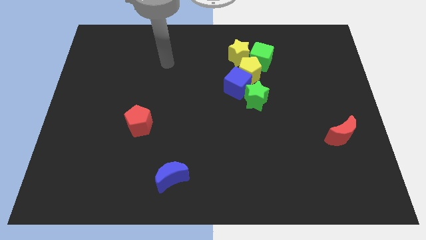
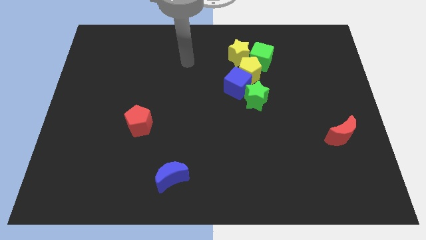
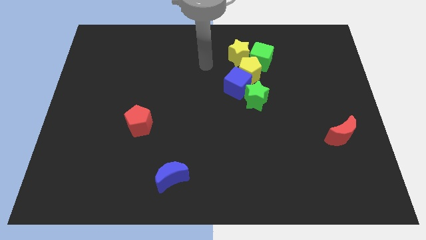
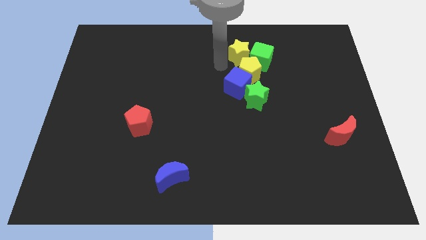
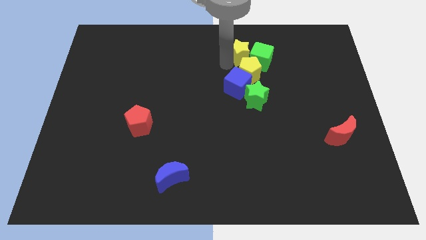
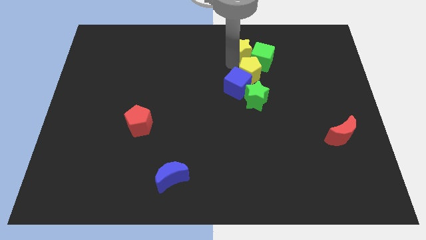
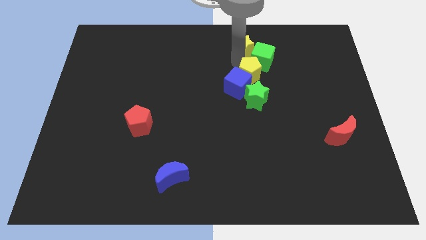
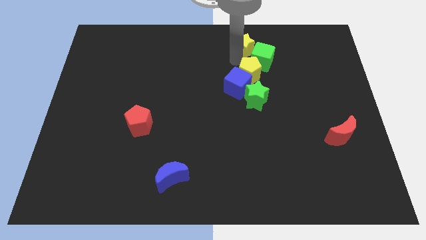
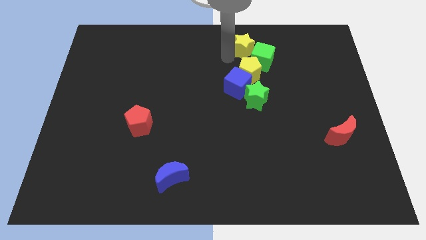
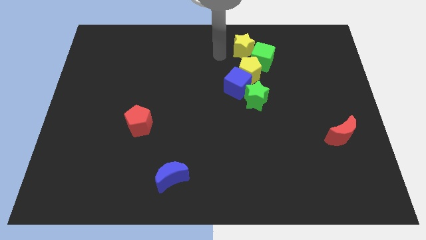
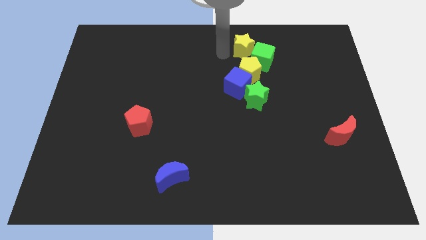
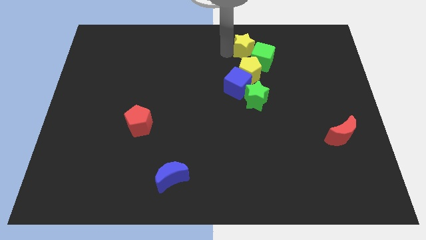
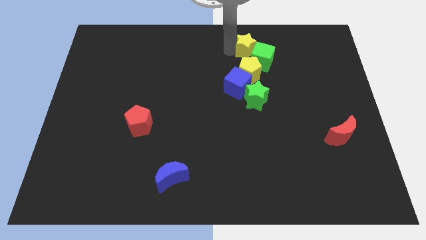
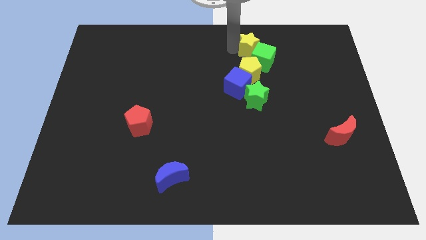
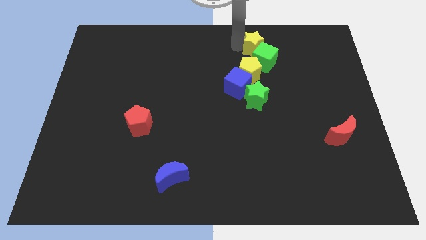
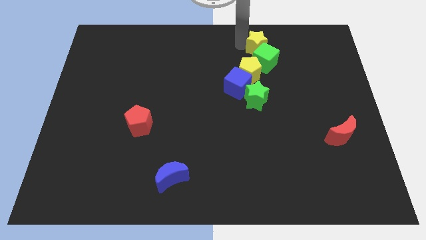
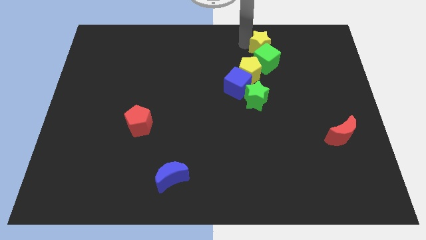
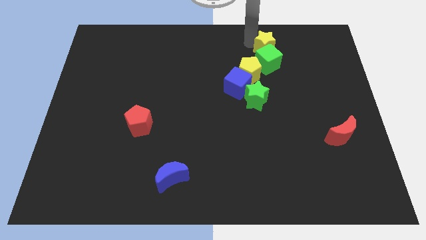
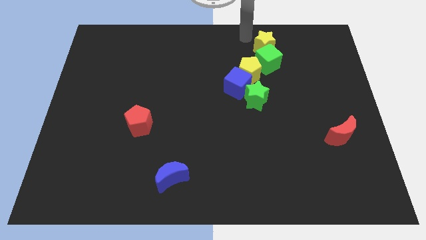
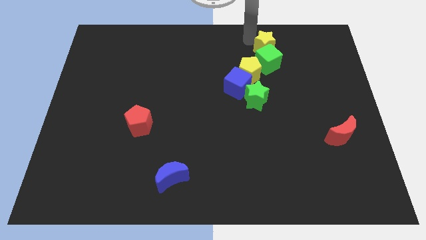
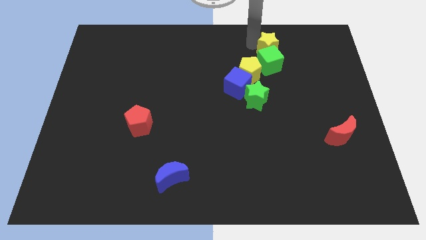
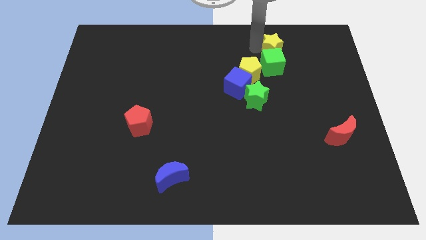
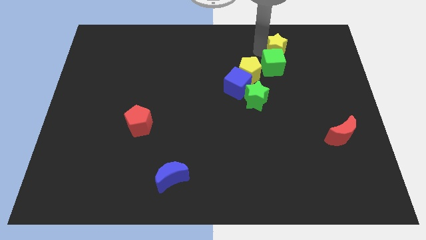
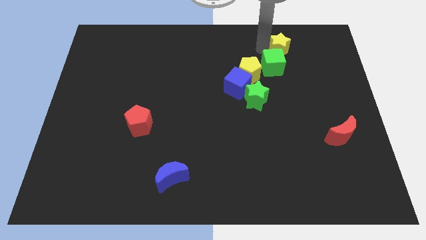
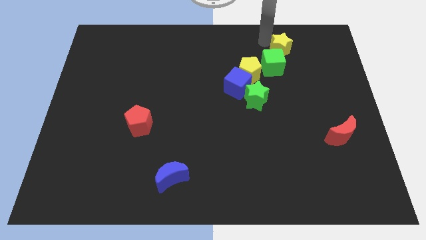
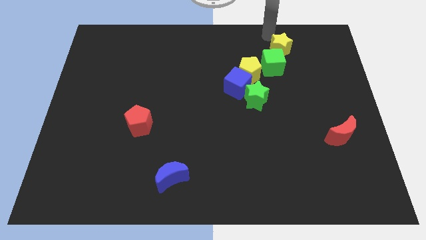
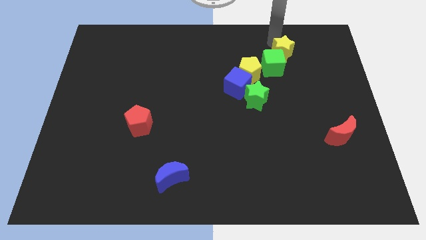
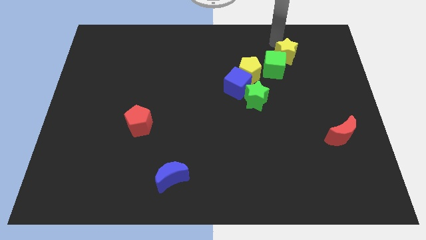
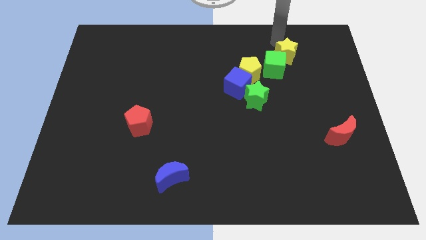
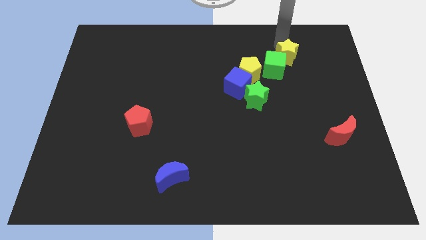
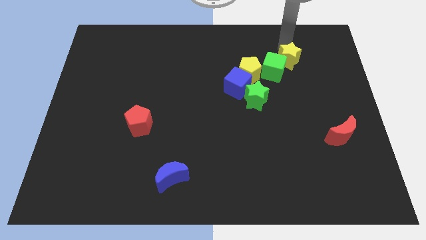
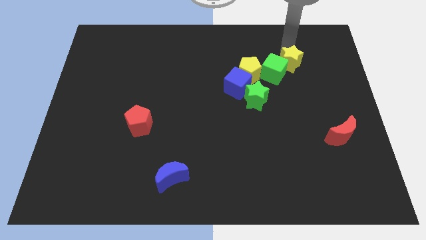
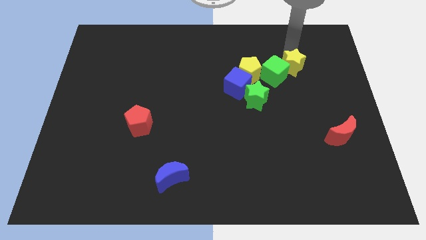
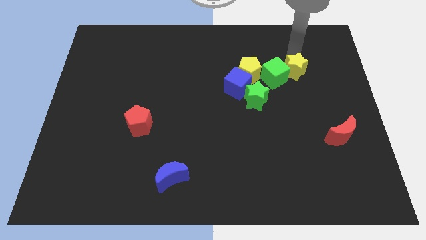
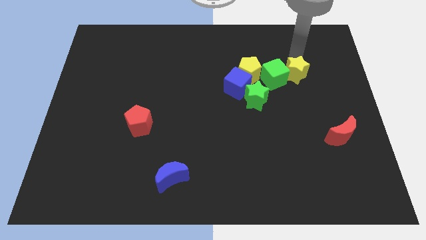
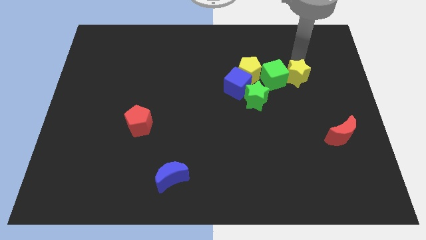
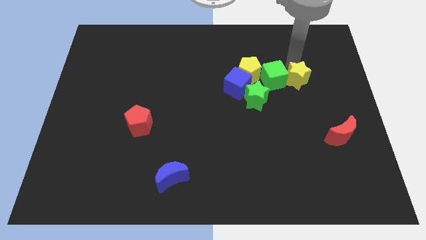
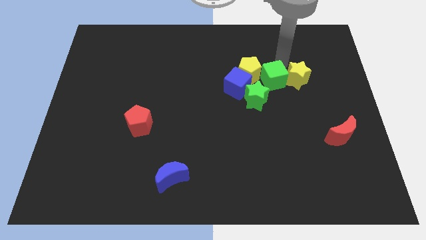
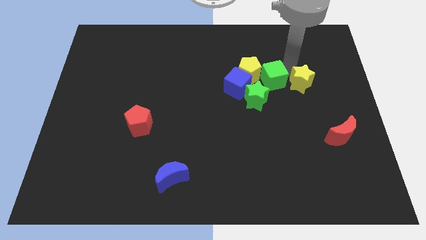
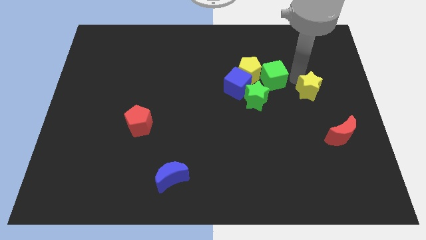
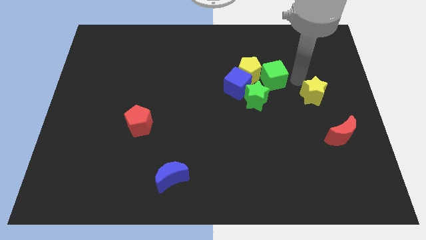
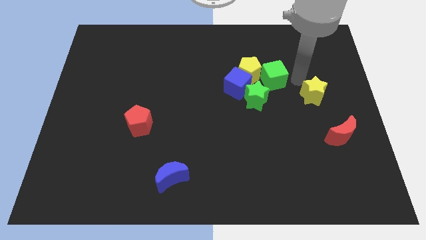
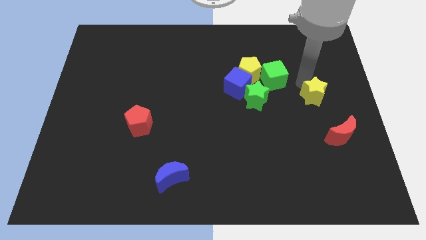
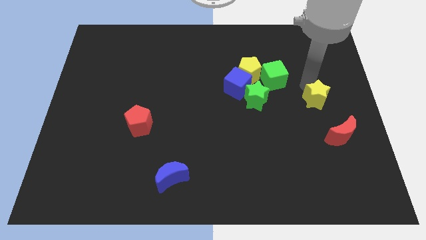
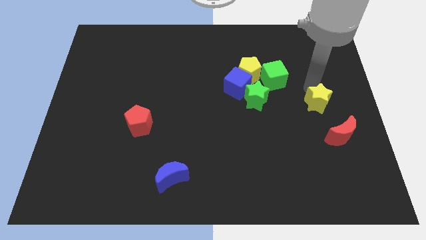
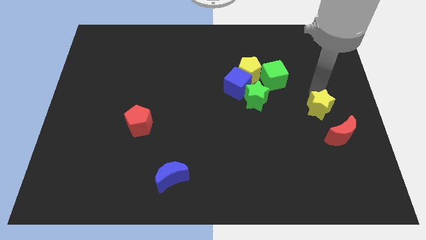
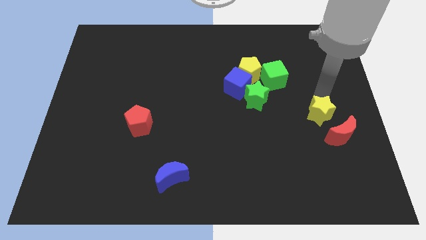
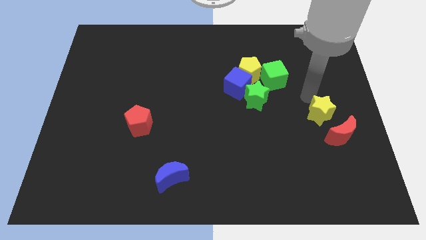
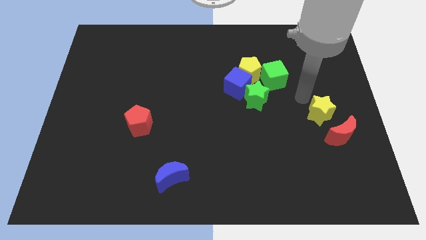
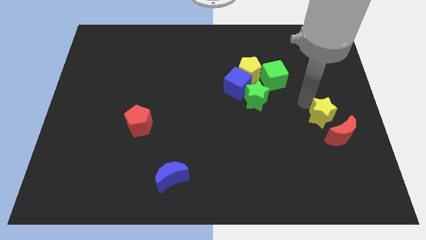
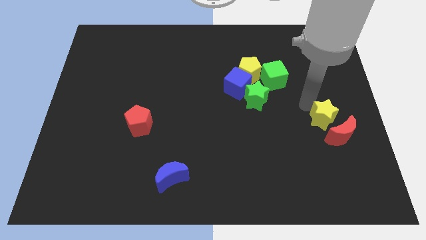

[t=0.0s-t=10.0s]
move the yellow star next to the red moon

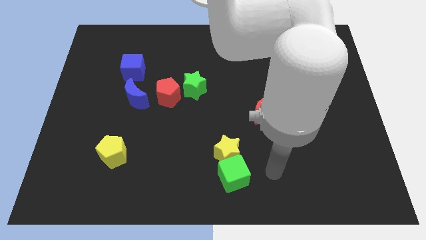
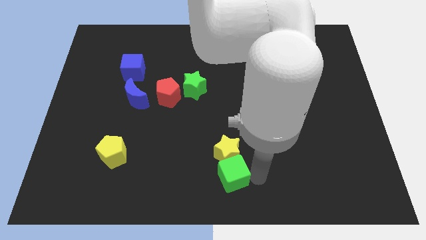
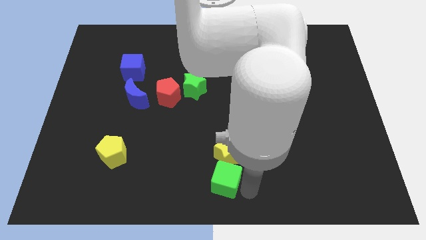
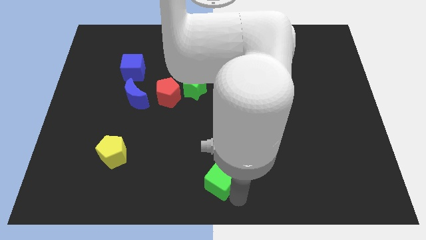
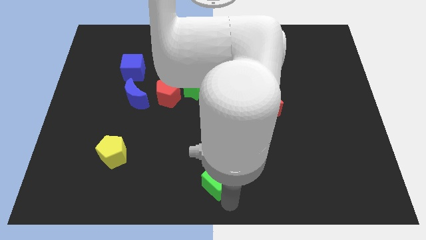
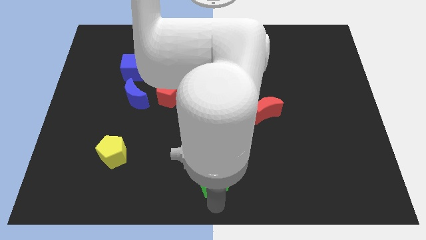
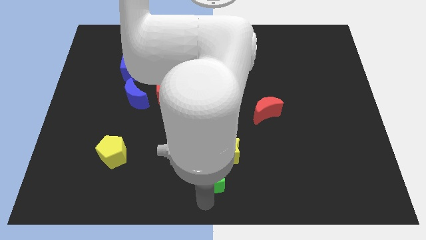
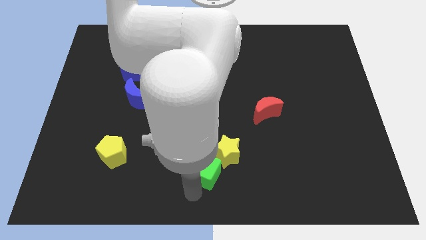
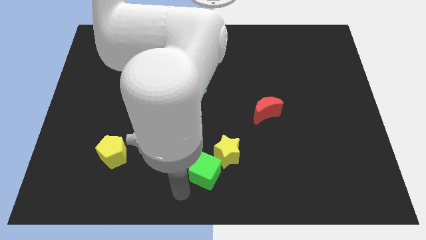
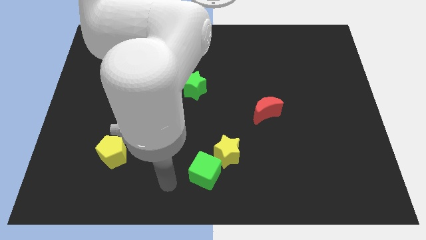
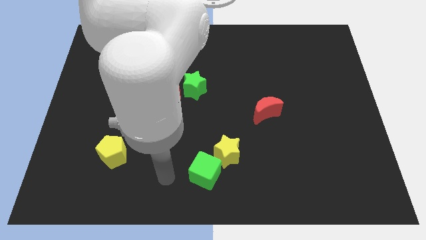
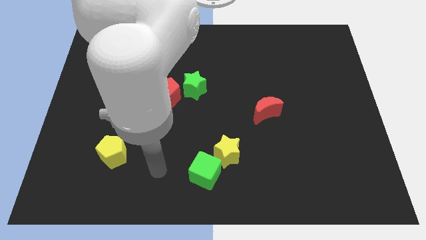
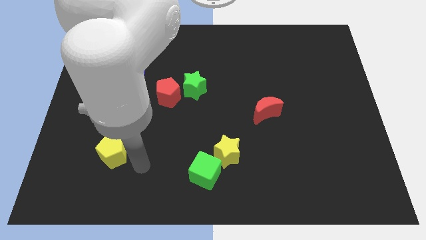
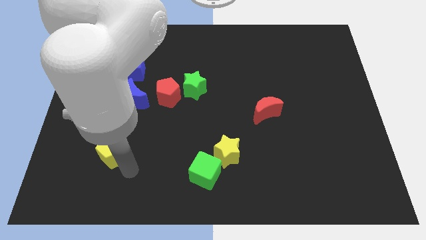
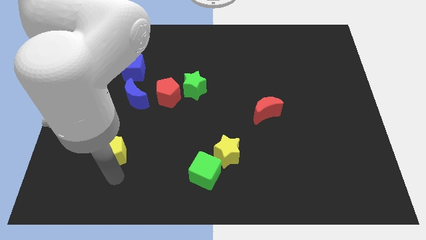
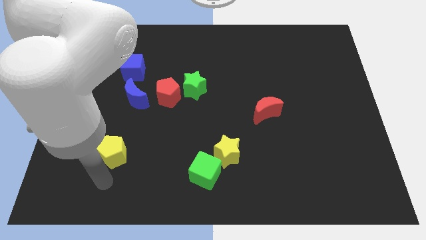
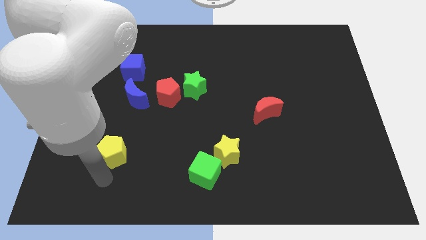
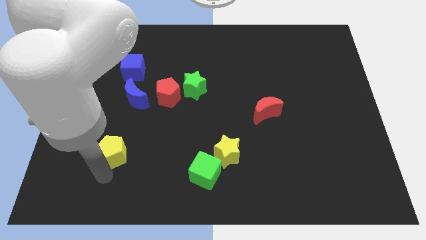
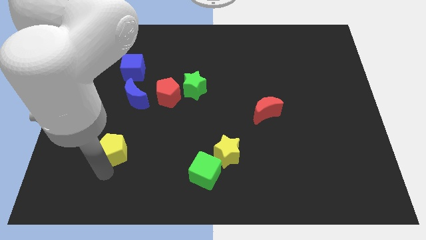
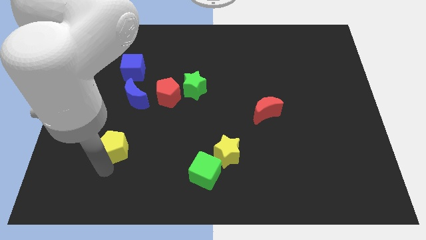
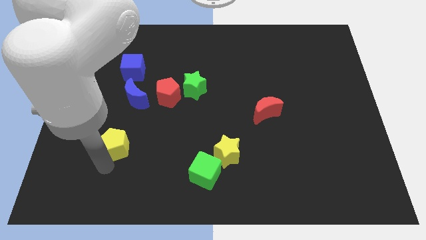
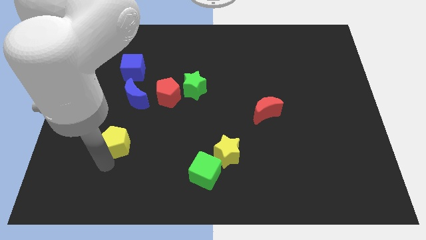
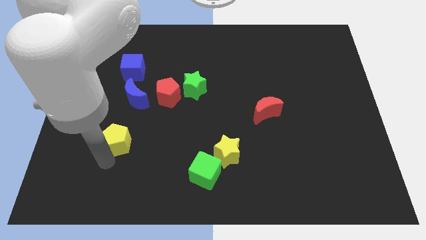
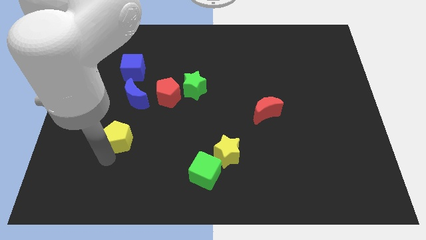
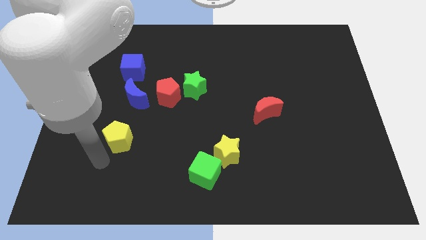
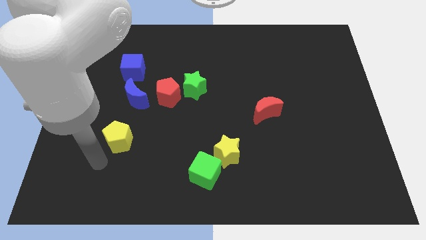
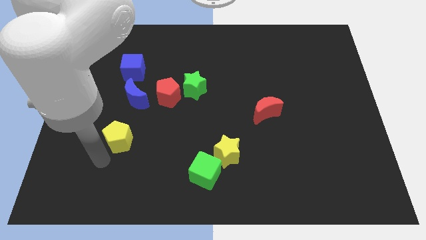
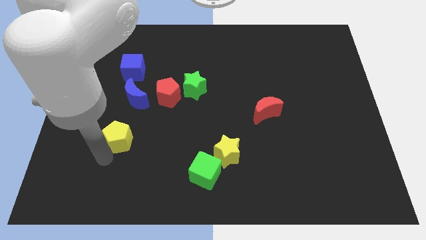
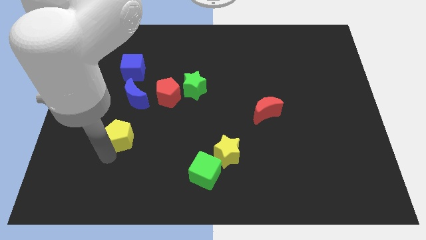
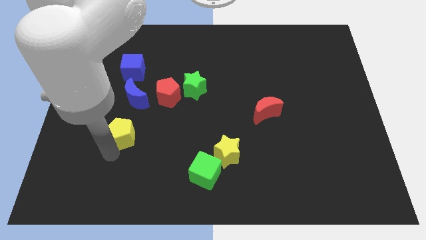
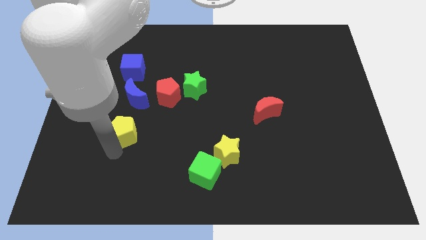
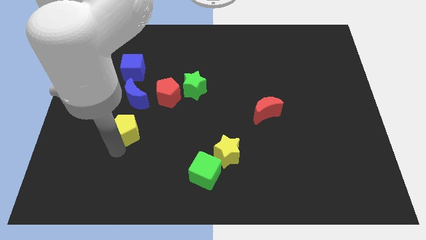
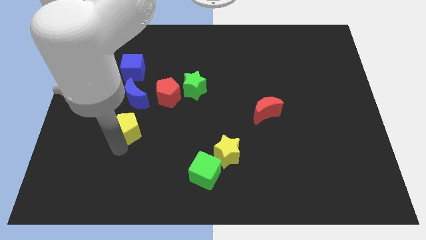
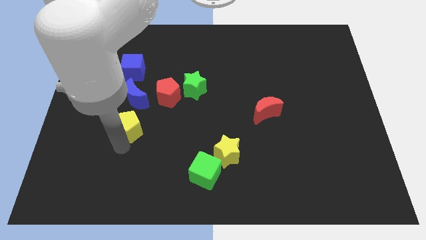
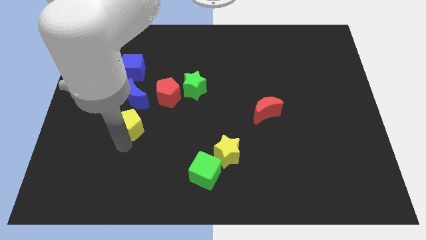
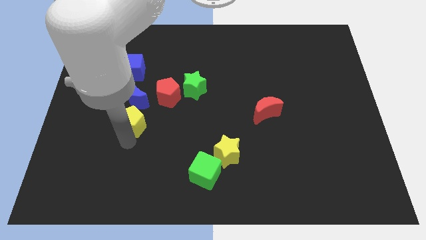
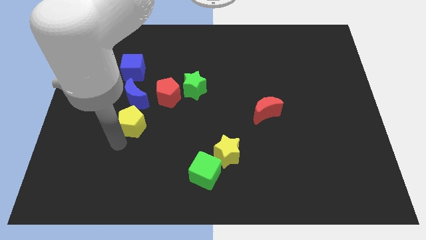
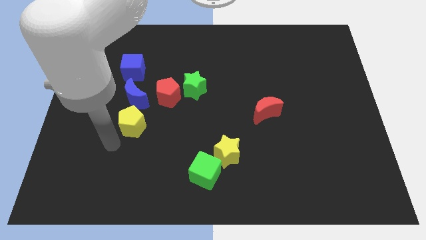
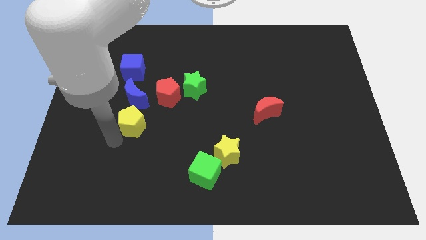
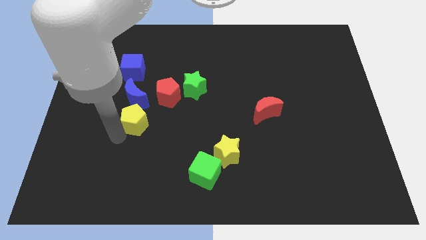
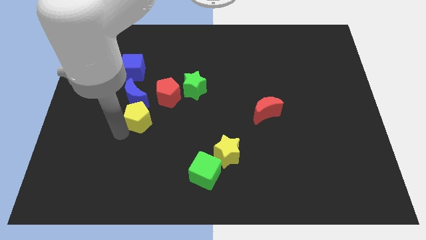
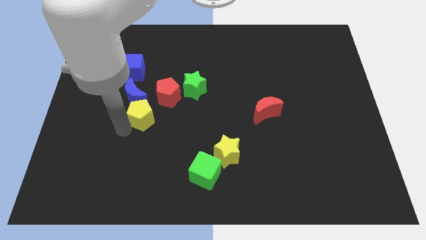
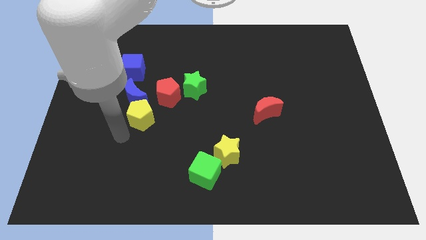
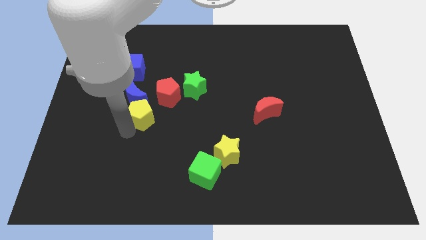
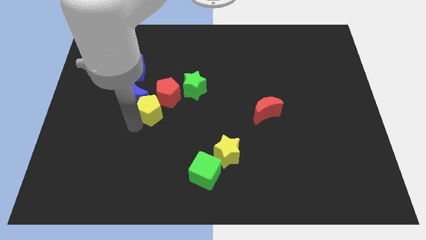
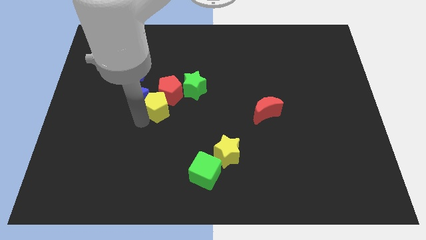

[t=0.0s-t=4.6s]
slide the yellow pentagon to the red pentagon
